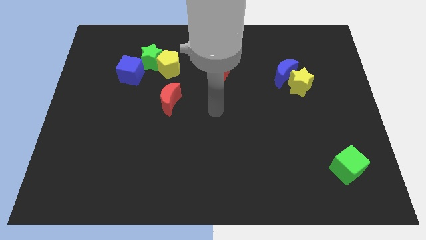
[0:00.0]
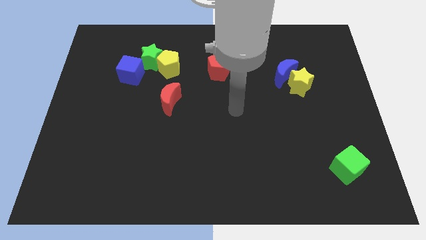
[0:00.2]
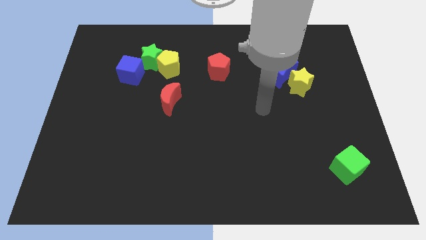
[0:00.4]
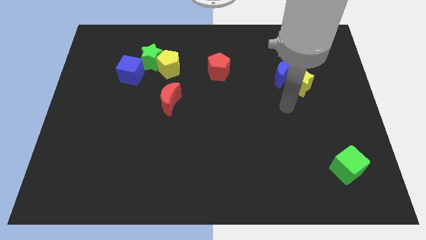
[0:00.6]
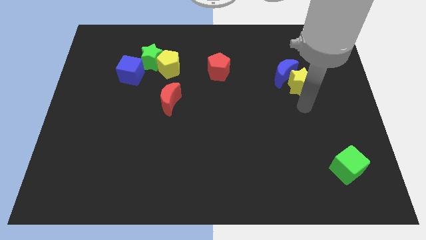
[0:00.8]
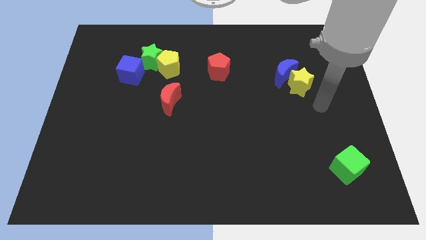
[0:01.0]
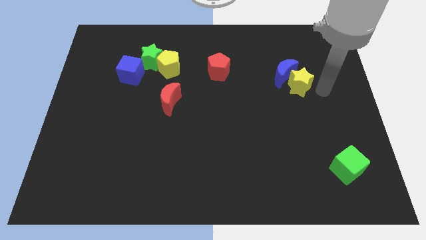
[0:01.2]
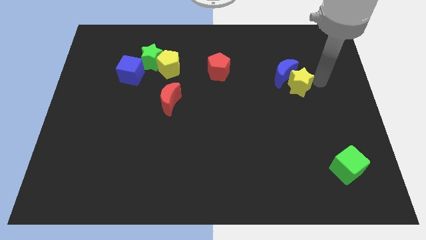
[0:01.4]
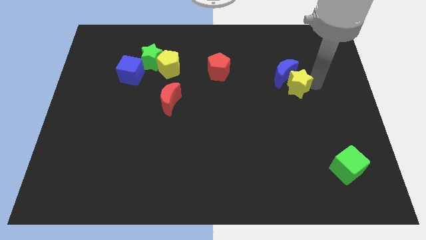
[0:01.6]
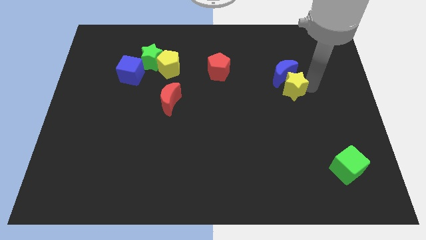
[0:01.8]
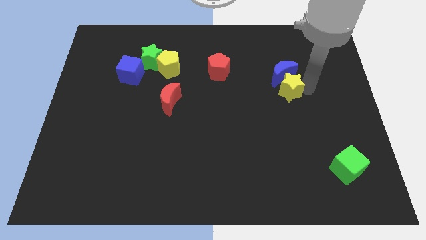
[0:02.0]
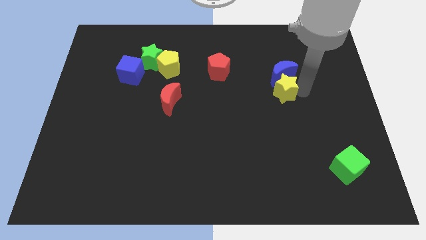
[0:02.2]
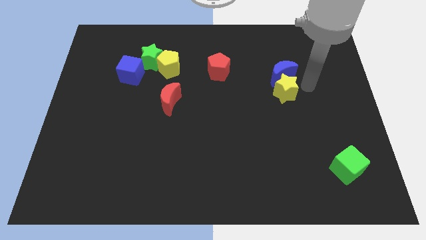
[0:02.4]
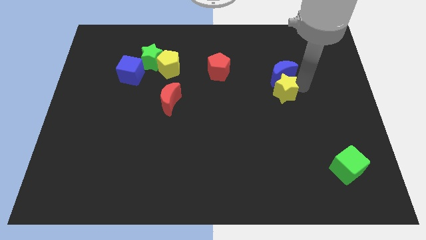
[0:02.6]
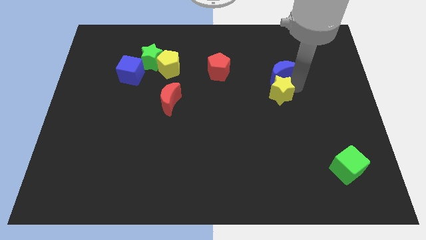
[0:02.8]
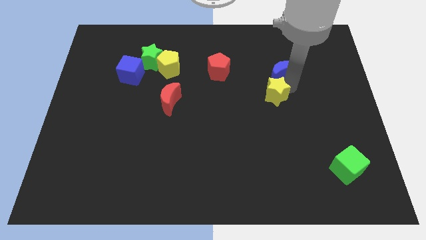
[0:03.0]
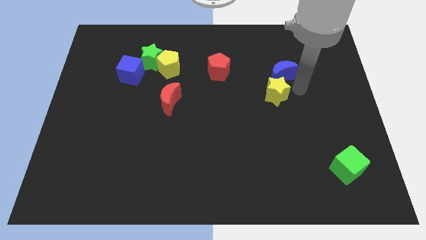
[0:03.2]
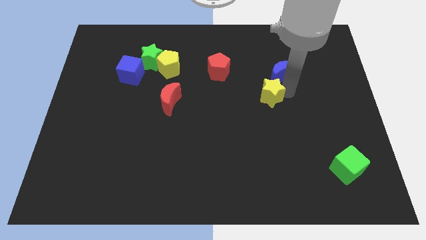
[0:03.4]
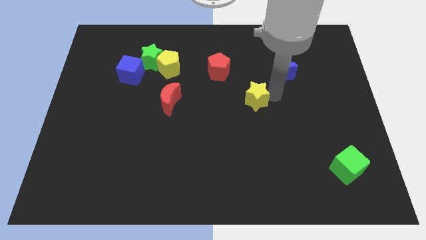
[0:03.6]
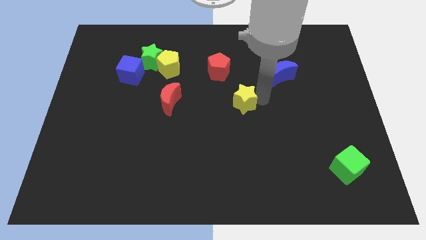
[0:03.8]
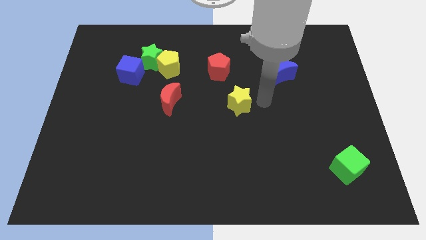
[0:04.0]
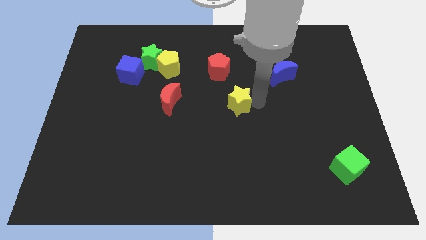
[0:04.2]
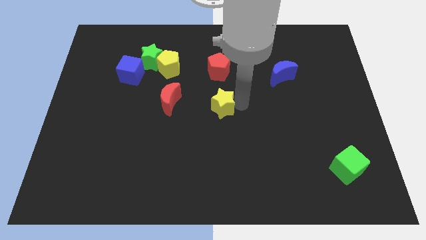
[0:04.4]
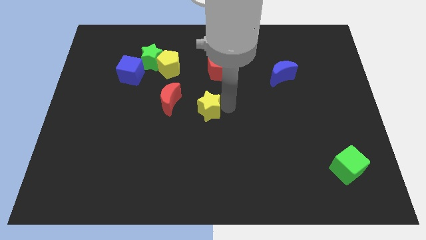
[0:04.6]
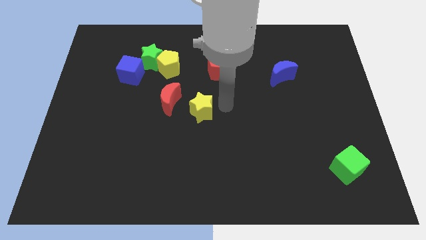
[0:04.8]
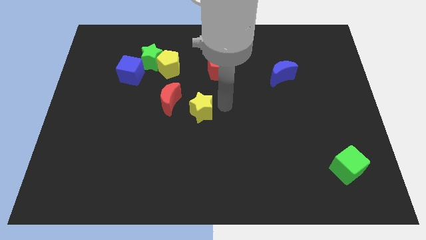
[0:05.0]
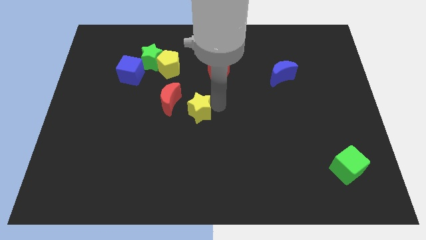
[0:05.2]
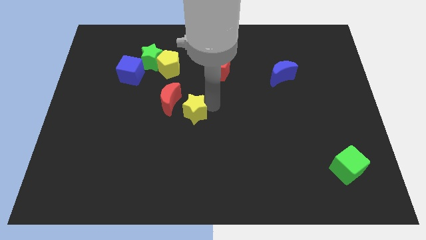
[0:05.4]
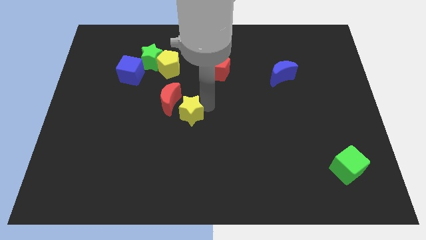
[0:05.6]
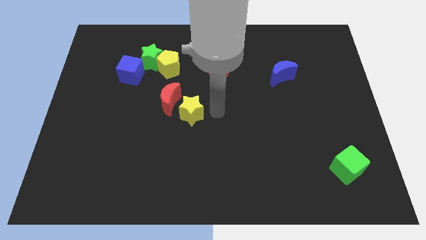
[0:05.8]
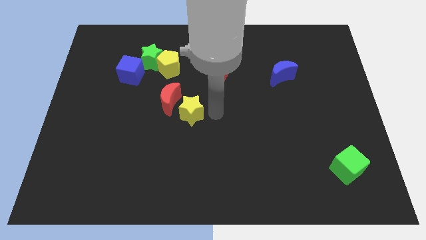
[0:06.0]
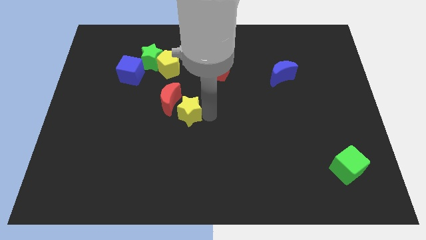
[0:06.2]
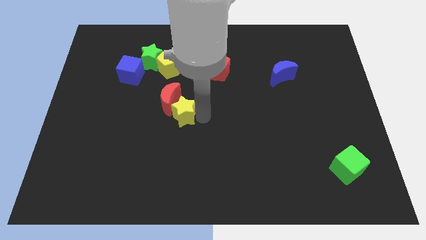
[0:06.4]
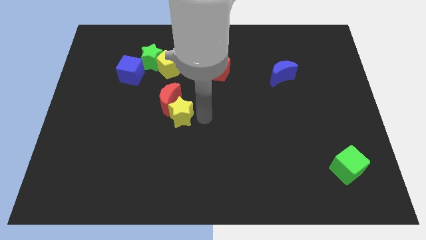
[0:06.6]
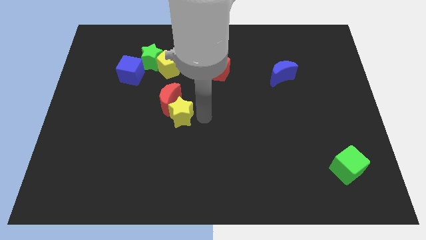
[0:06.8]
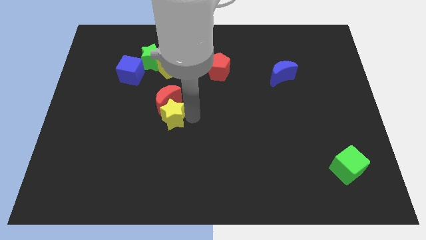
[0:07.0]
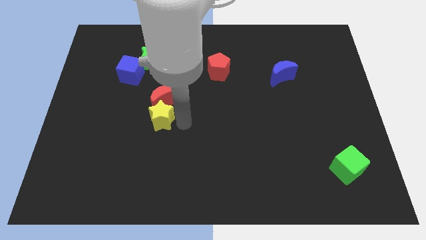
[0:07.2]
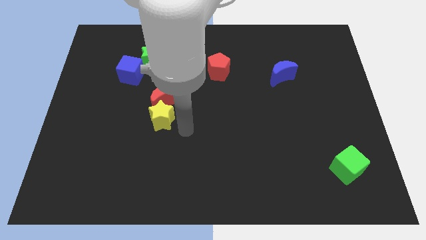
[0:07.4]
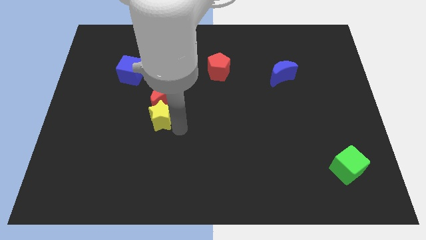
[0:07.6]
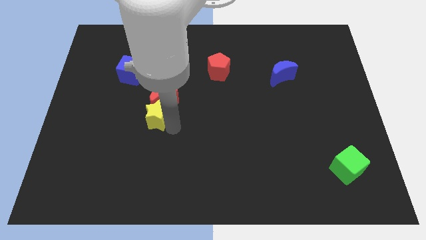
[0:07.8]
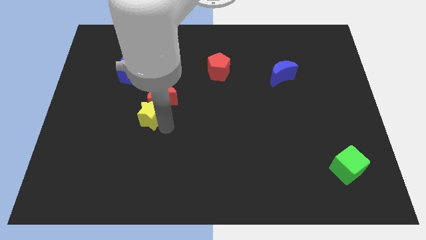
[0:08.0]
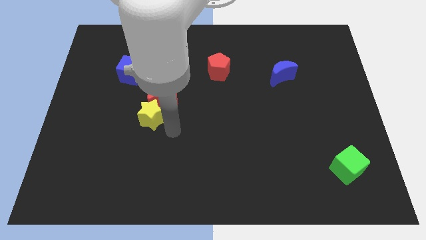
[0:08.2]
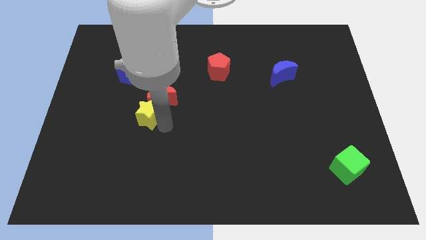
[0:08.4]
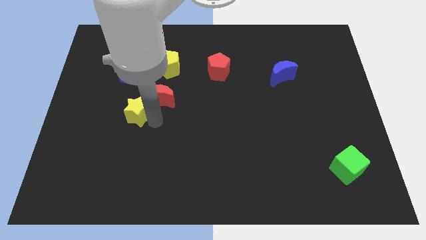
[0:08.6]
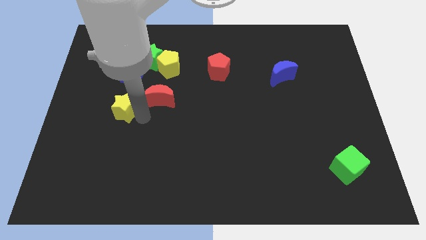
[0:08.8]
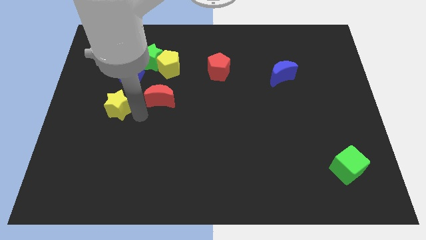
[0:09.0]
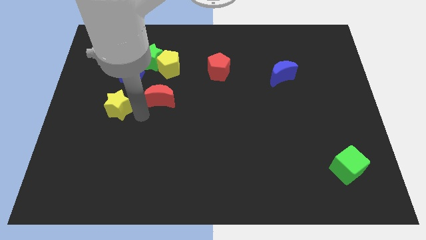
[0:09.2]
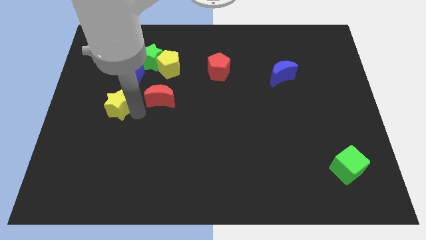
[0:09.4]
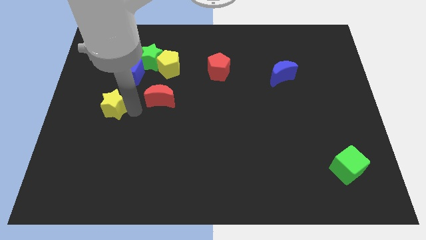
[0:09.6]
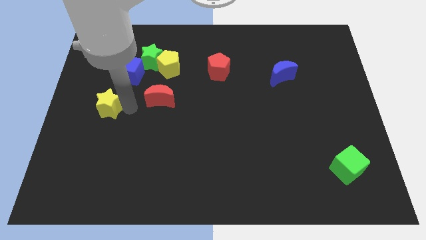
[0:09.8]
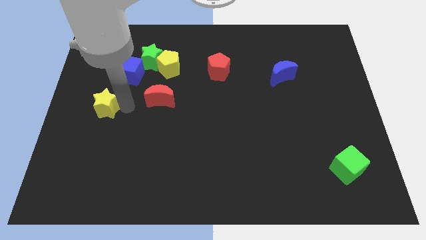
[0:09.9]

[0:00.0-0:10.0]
slide the yellow star to the left side

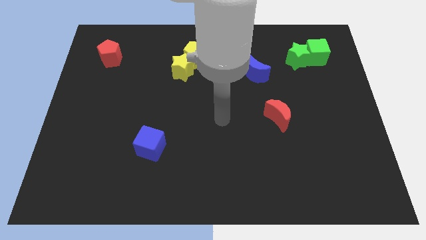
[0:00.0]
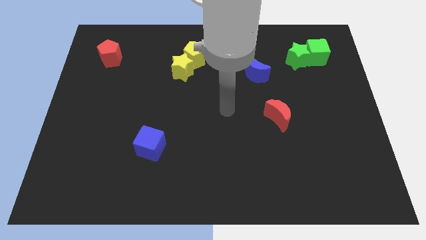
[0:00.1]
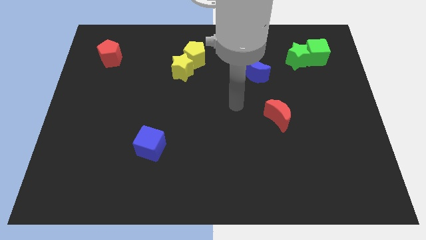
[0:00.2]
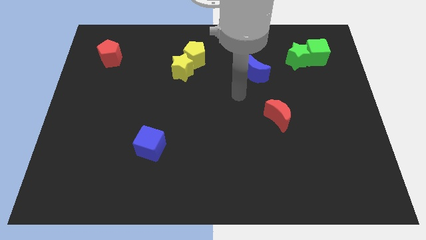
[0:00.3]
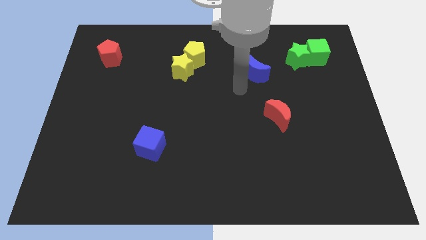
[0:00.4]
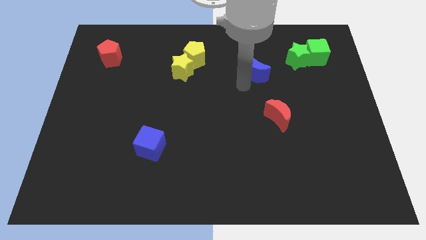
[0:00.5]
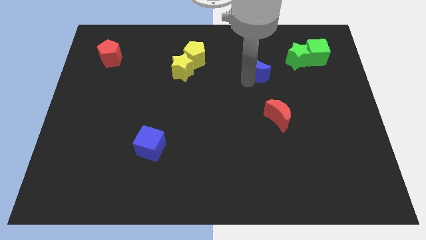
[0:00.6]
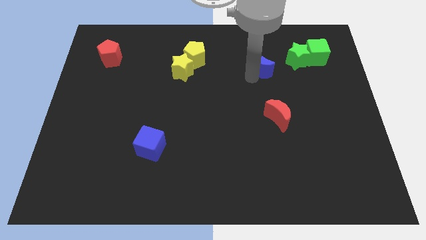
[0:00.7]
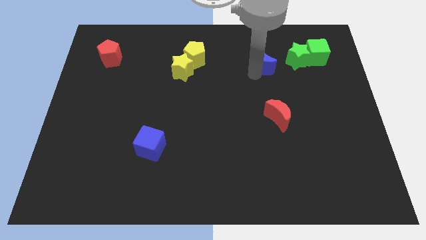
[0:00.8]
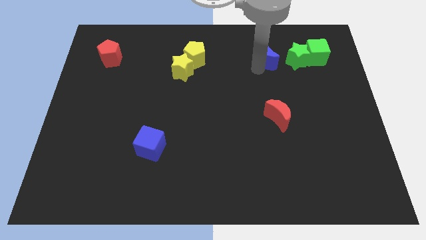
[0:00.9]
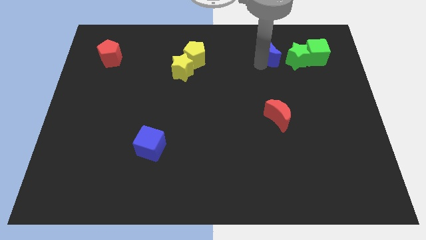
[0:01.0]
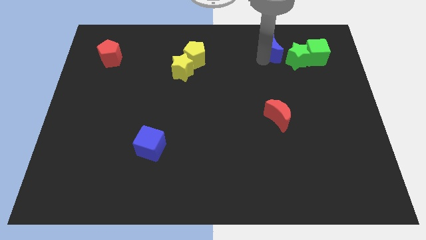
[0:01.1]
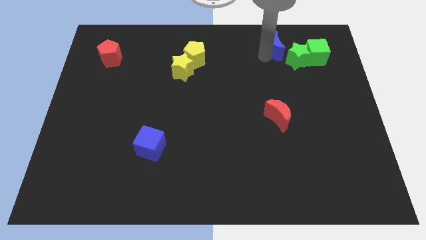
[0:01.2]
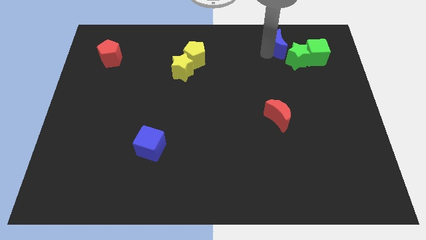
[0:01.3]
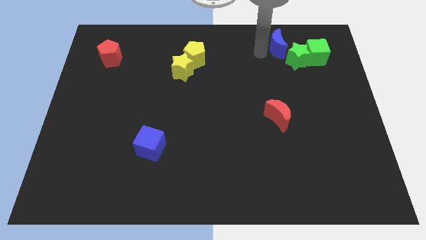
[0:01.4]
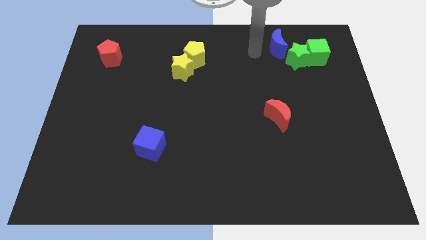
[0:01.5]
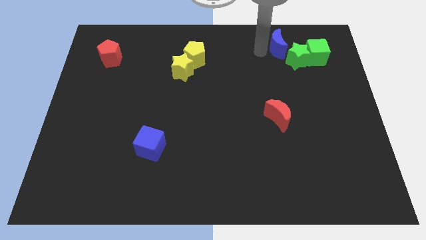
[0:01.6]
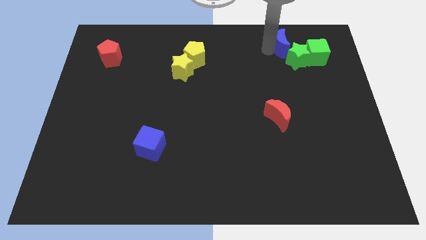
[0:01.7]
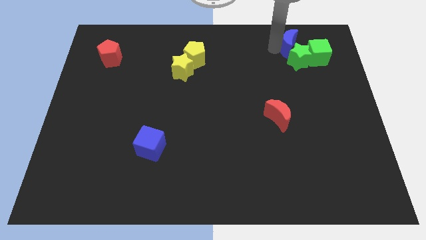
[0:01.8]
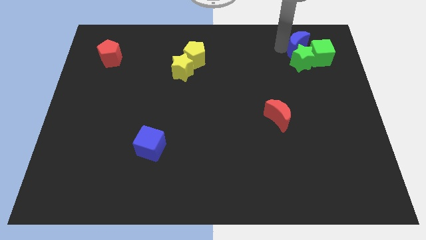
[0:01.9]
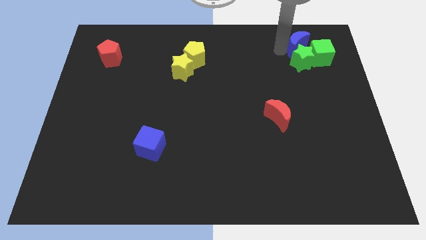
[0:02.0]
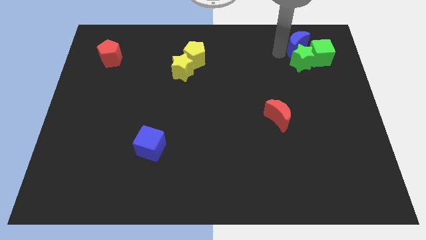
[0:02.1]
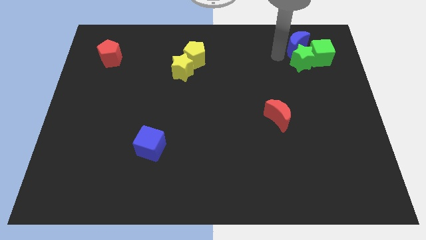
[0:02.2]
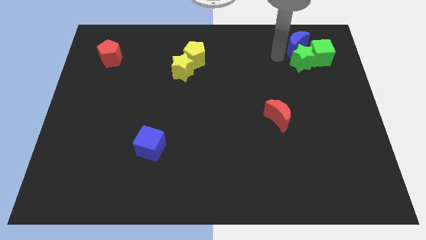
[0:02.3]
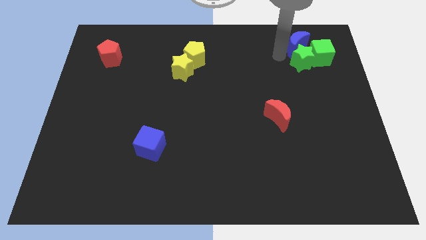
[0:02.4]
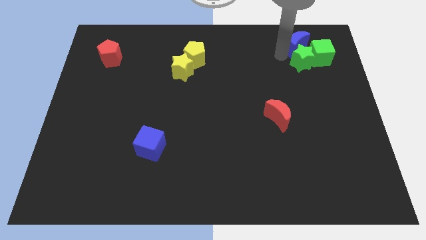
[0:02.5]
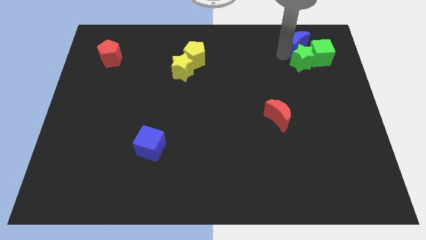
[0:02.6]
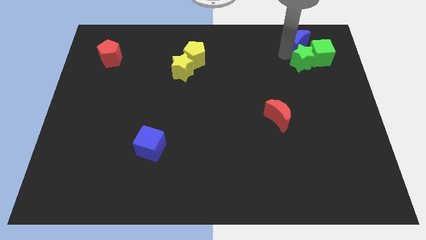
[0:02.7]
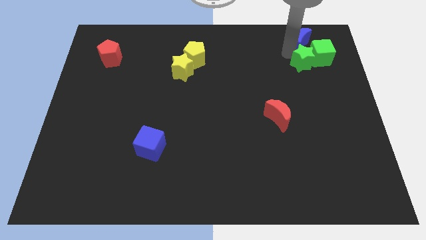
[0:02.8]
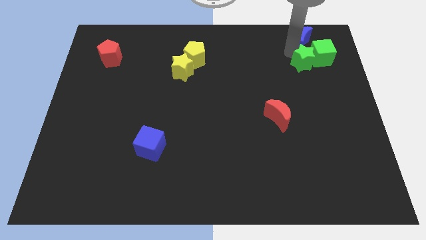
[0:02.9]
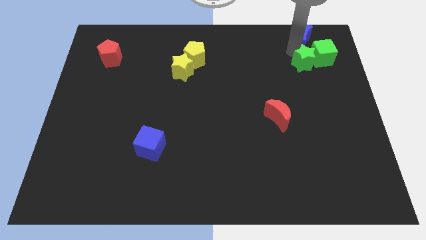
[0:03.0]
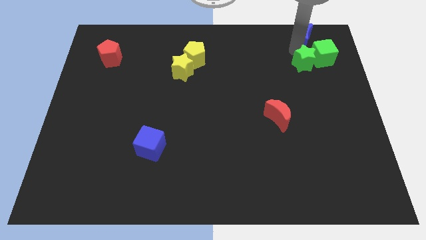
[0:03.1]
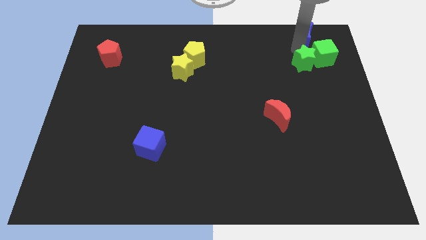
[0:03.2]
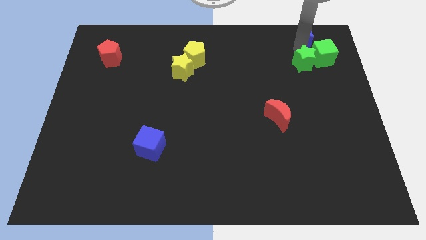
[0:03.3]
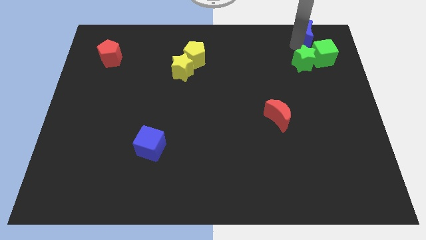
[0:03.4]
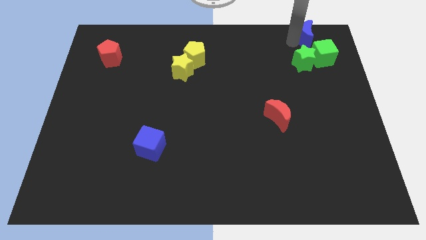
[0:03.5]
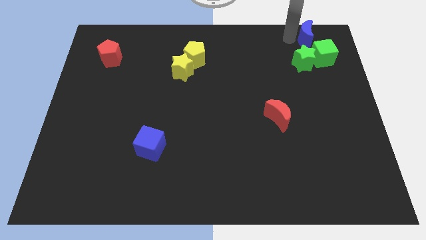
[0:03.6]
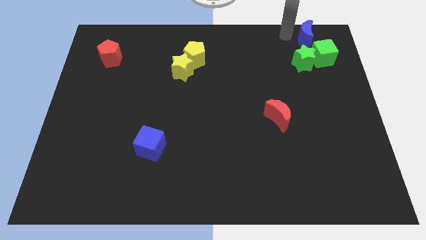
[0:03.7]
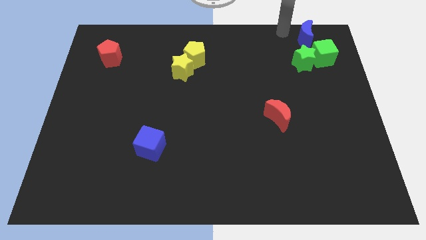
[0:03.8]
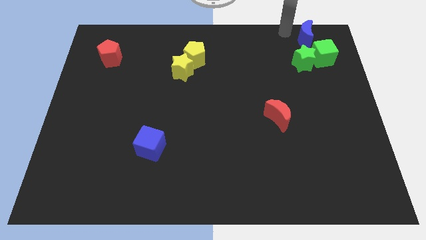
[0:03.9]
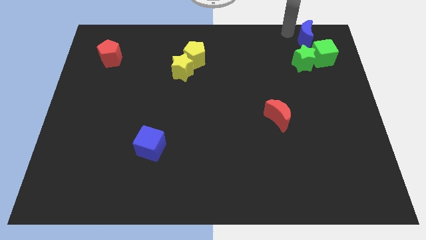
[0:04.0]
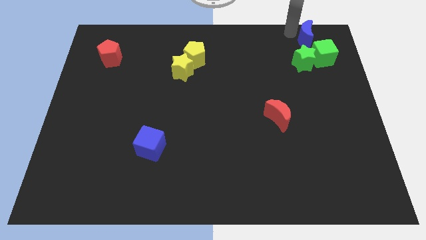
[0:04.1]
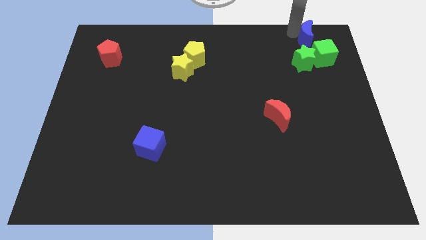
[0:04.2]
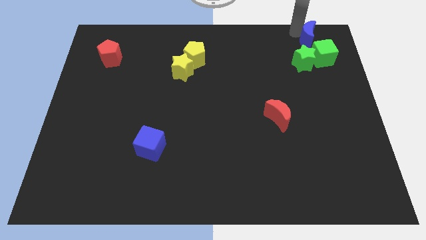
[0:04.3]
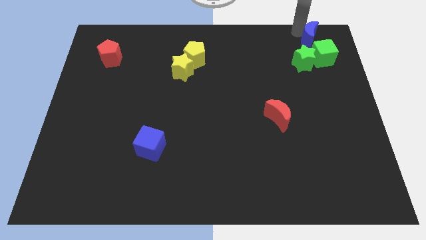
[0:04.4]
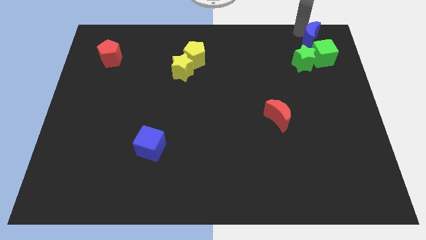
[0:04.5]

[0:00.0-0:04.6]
put the blue moon to the top right corner
